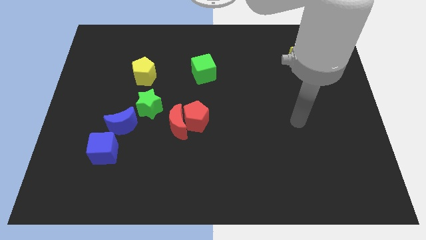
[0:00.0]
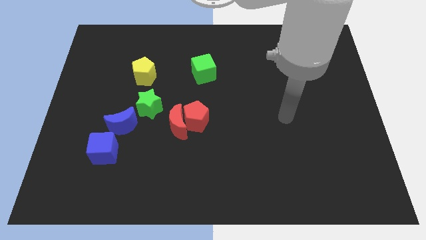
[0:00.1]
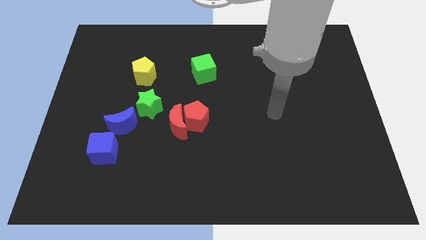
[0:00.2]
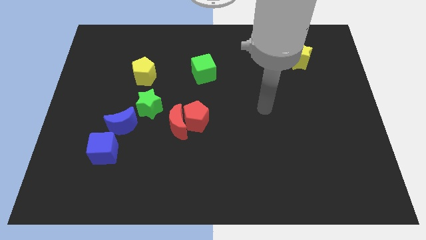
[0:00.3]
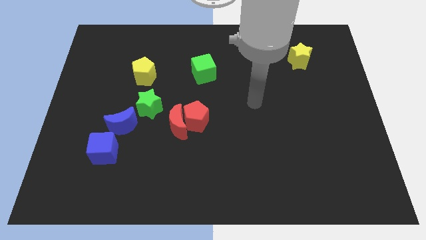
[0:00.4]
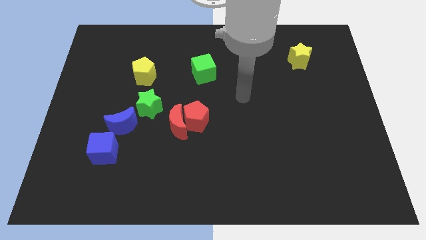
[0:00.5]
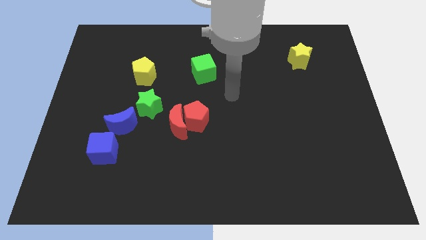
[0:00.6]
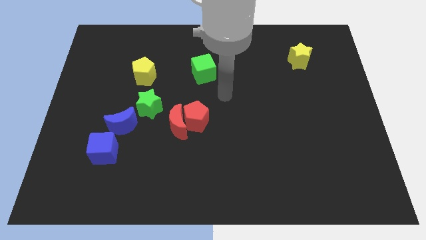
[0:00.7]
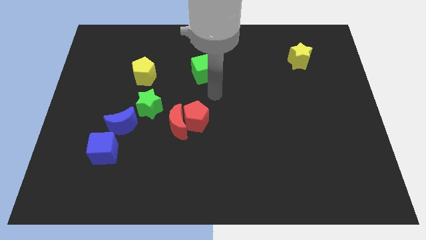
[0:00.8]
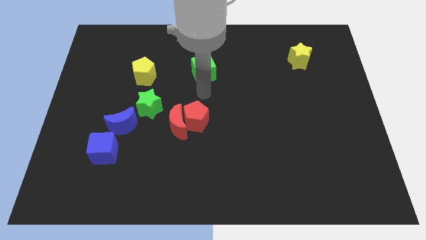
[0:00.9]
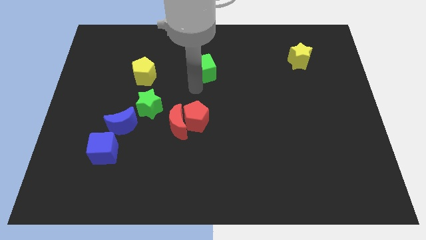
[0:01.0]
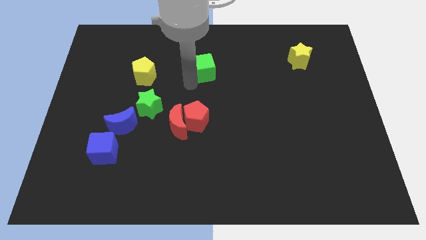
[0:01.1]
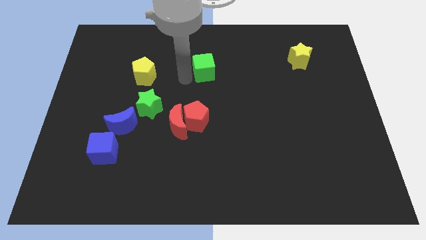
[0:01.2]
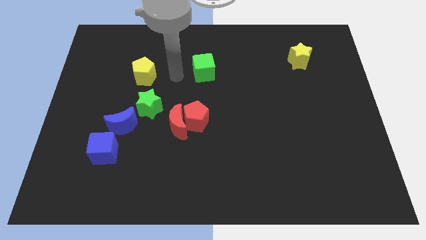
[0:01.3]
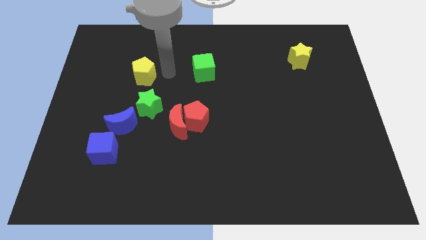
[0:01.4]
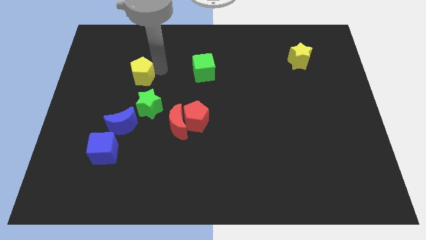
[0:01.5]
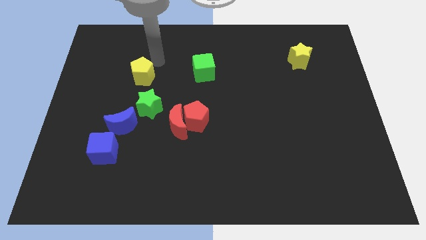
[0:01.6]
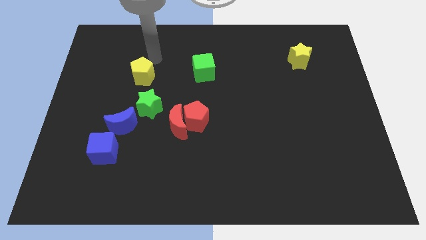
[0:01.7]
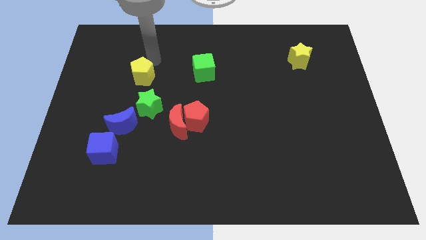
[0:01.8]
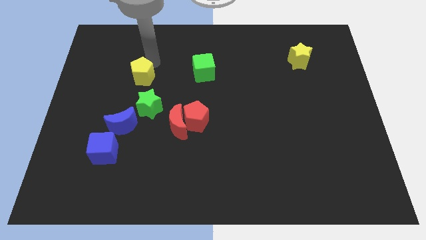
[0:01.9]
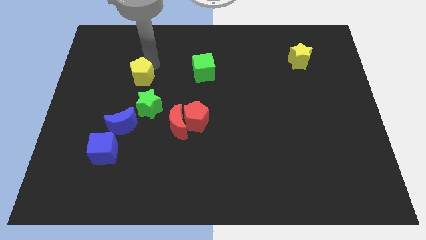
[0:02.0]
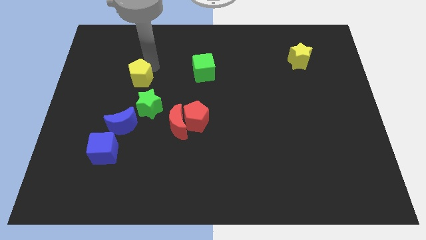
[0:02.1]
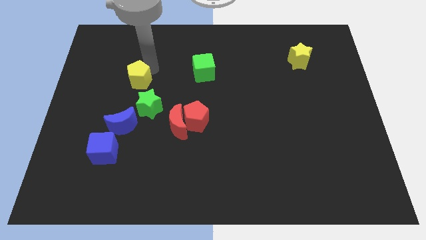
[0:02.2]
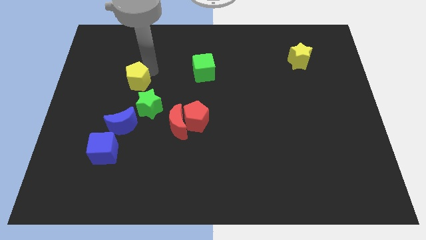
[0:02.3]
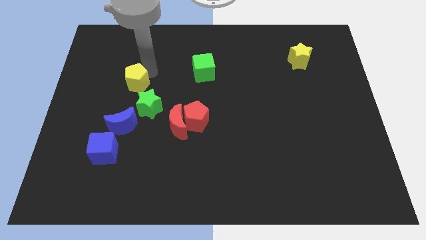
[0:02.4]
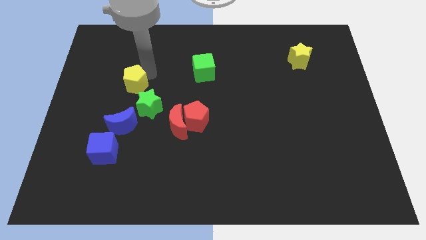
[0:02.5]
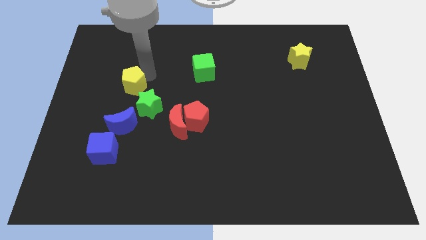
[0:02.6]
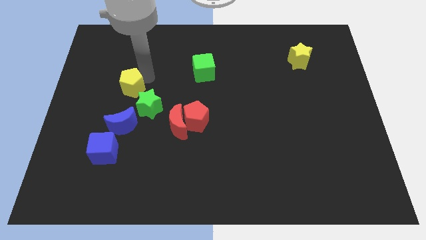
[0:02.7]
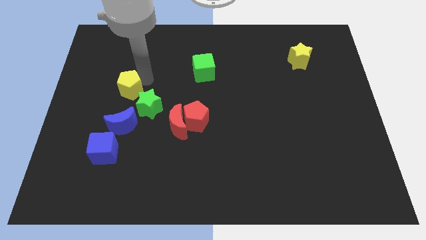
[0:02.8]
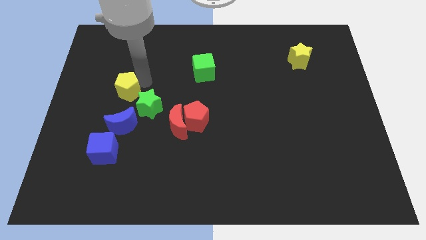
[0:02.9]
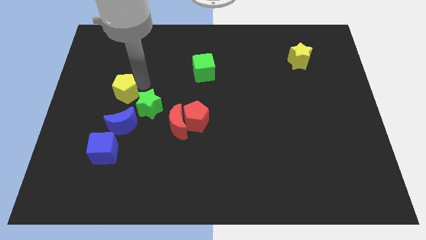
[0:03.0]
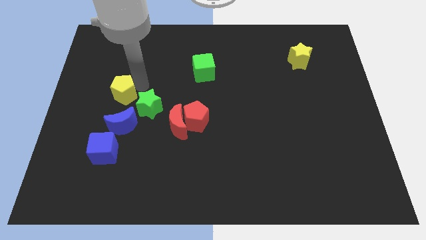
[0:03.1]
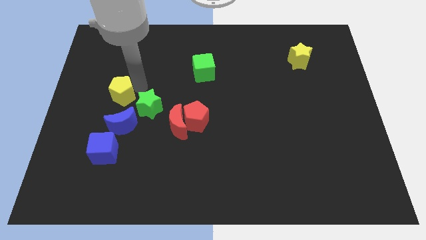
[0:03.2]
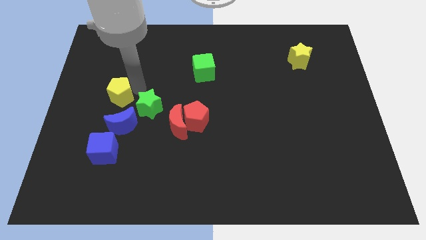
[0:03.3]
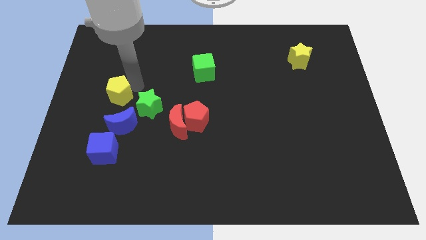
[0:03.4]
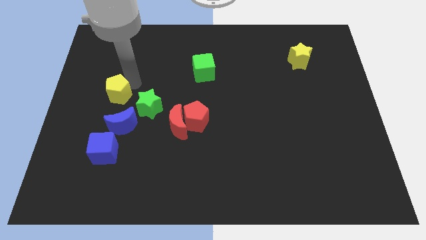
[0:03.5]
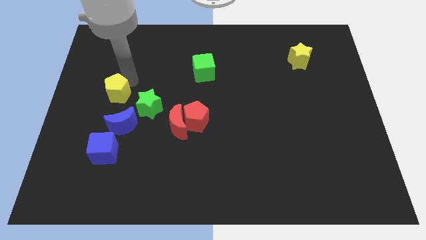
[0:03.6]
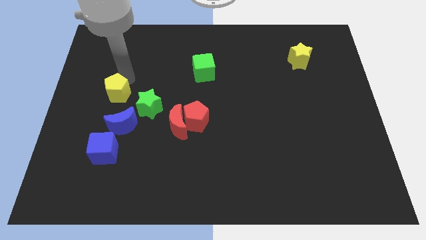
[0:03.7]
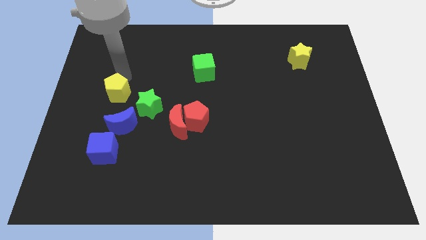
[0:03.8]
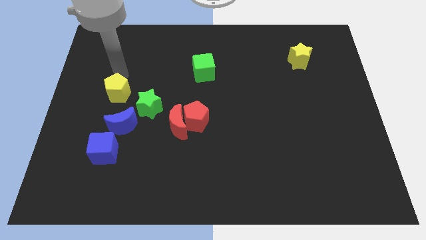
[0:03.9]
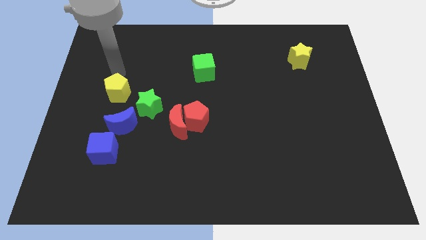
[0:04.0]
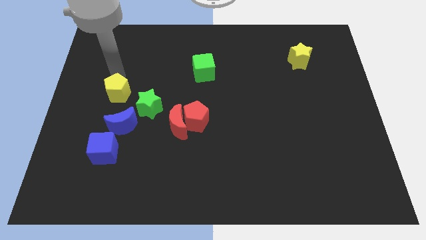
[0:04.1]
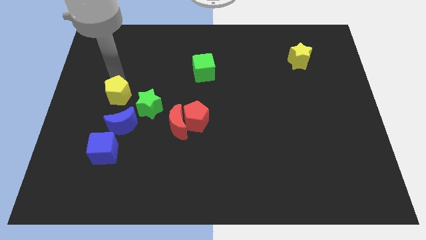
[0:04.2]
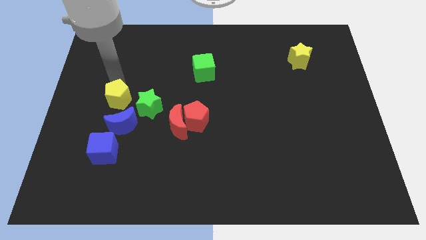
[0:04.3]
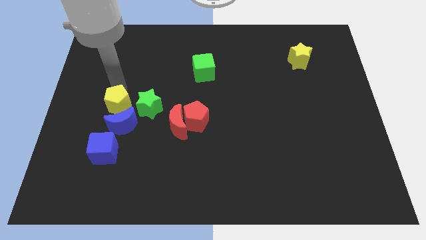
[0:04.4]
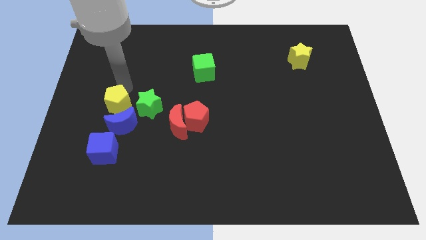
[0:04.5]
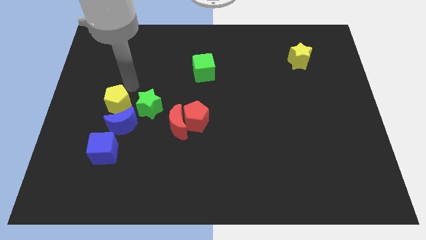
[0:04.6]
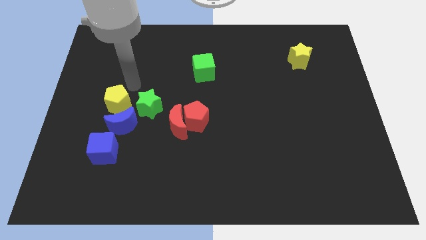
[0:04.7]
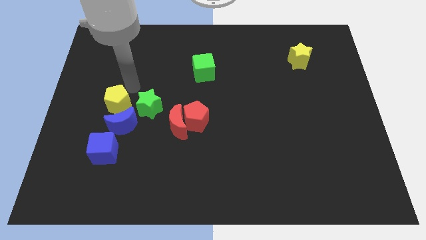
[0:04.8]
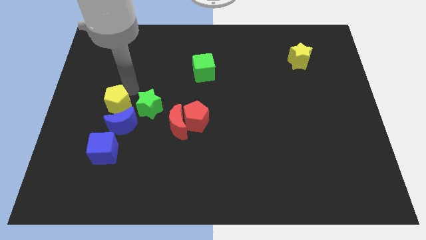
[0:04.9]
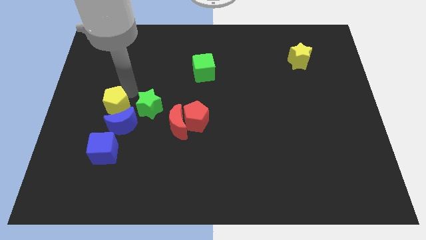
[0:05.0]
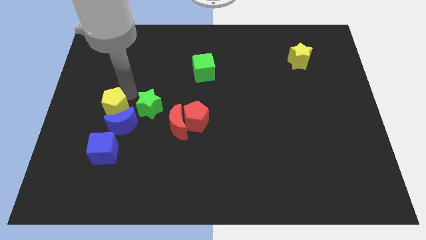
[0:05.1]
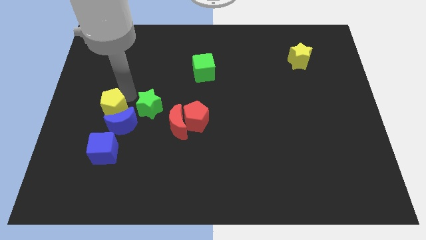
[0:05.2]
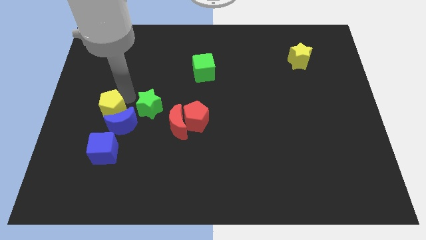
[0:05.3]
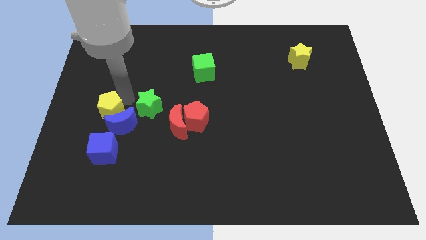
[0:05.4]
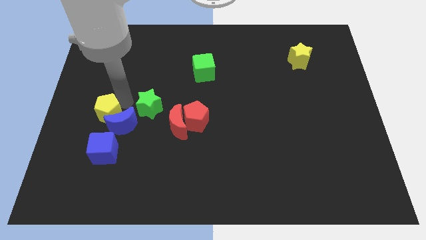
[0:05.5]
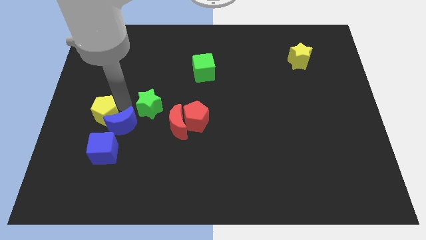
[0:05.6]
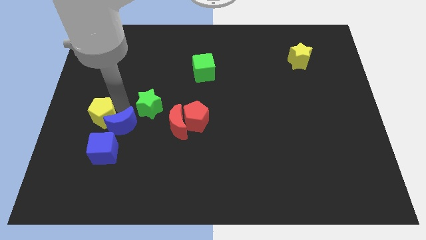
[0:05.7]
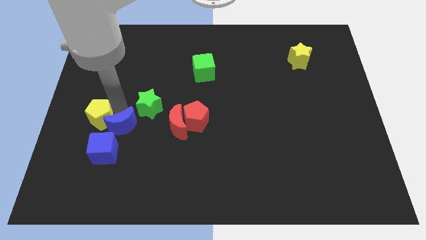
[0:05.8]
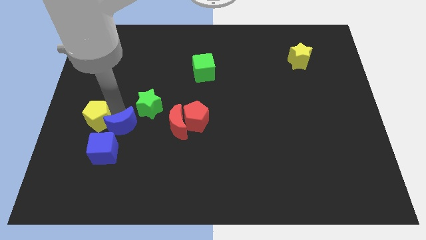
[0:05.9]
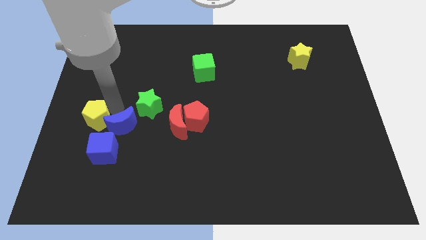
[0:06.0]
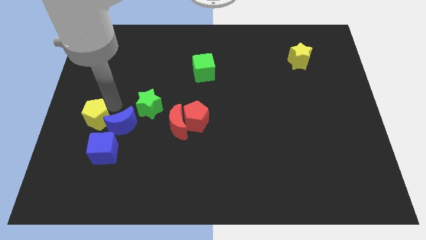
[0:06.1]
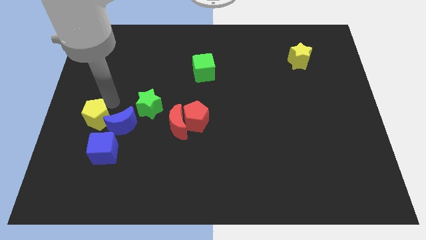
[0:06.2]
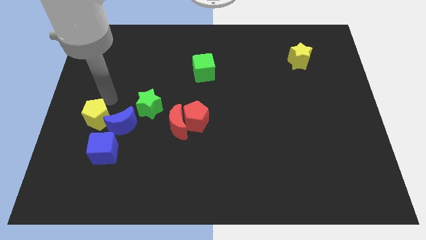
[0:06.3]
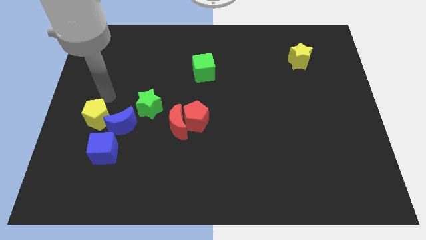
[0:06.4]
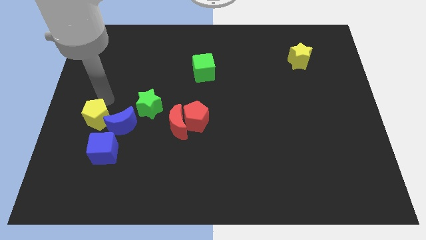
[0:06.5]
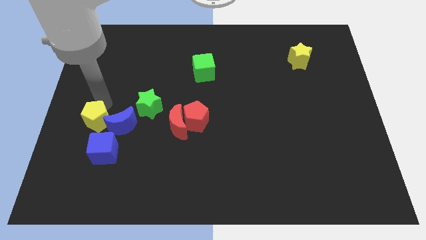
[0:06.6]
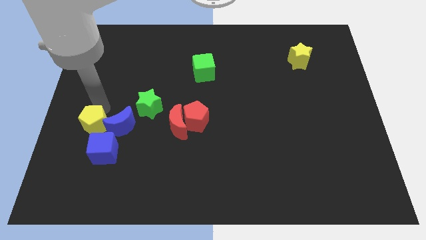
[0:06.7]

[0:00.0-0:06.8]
push the yellow pentagon diagonally down and to the left of the blue moon
